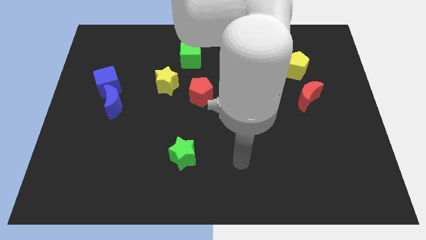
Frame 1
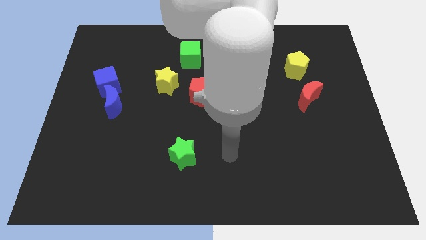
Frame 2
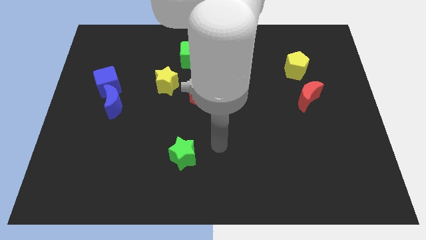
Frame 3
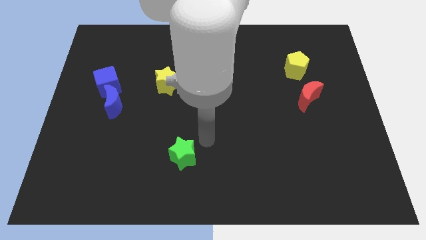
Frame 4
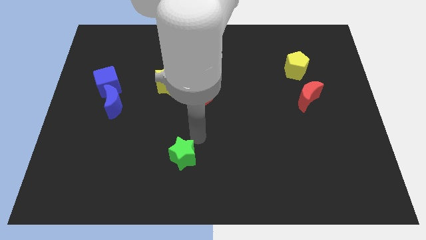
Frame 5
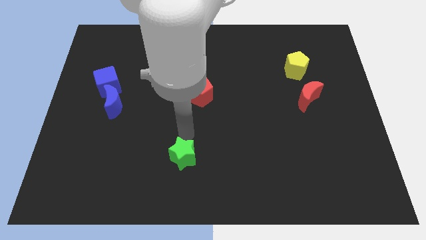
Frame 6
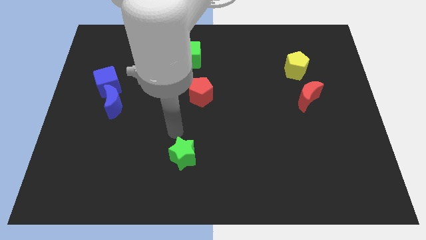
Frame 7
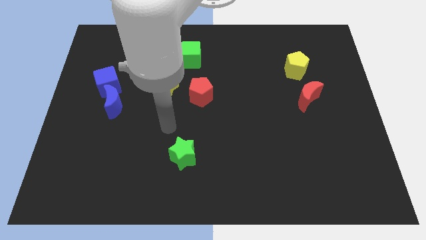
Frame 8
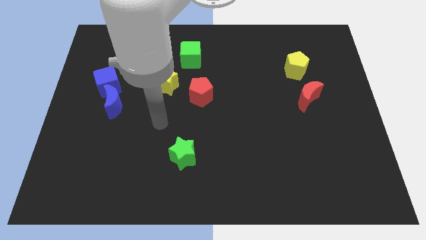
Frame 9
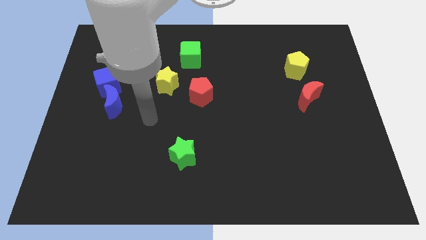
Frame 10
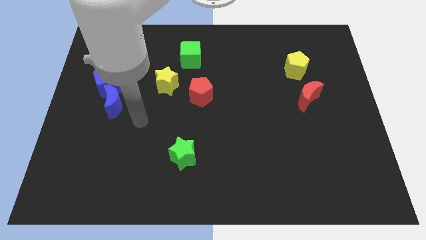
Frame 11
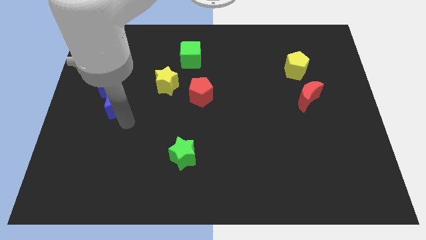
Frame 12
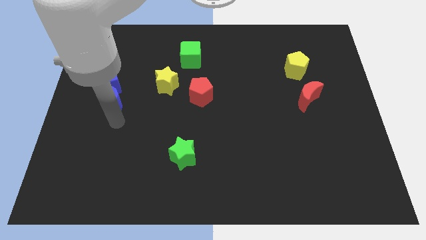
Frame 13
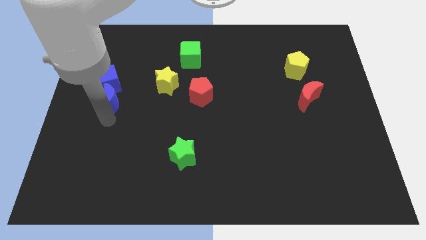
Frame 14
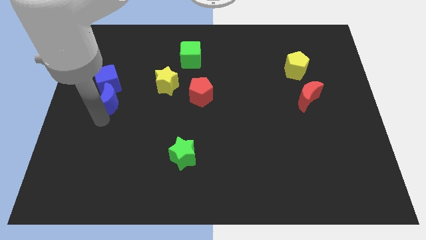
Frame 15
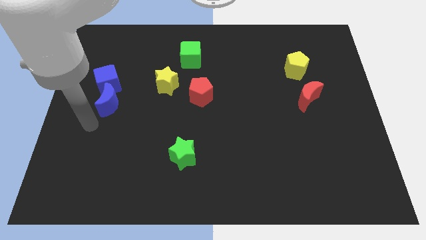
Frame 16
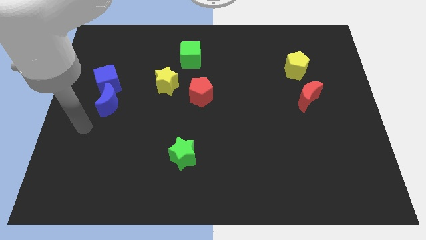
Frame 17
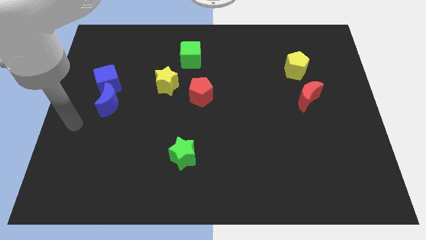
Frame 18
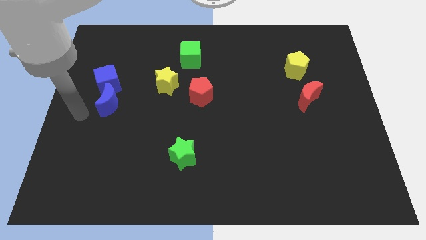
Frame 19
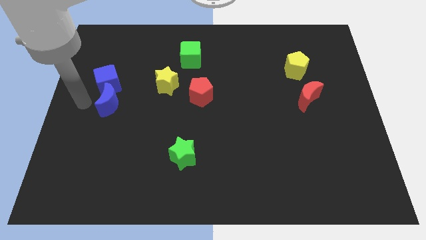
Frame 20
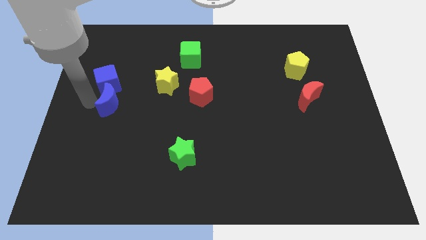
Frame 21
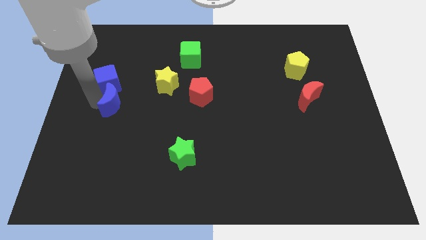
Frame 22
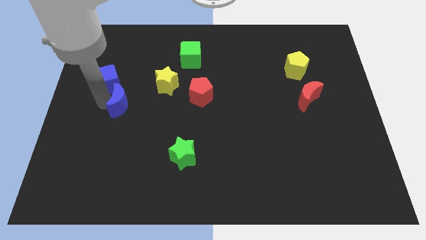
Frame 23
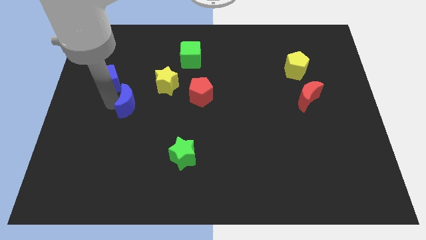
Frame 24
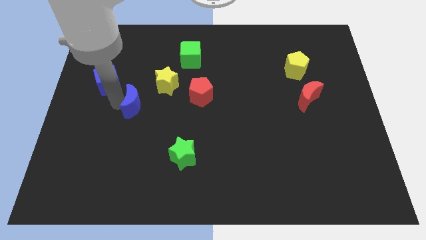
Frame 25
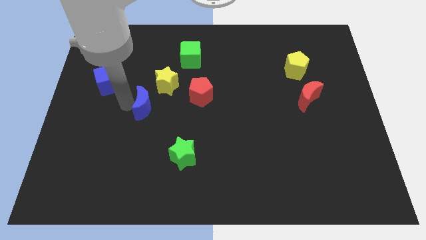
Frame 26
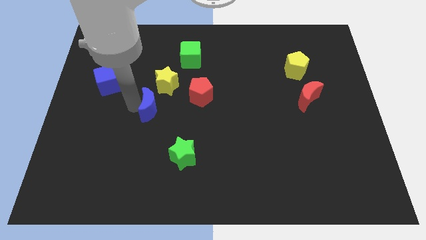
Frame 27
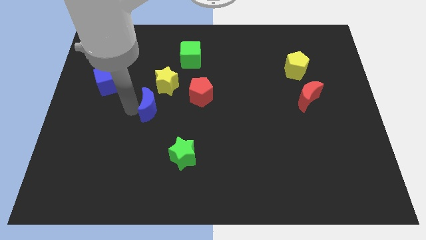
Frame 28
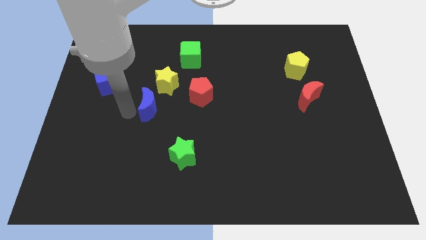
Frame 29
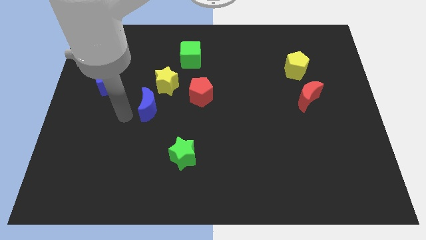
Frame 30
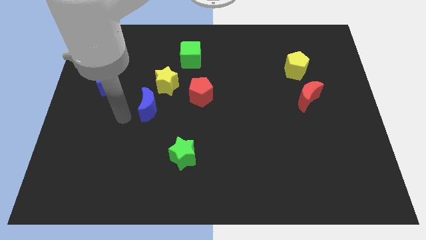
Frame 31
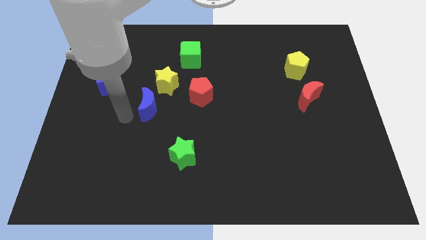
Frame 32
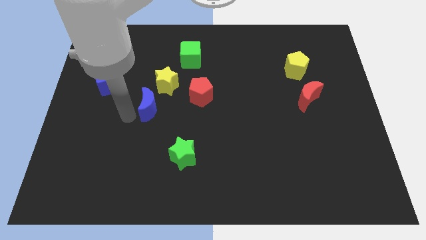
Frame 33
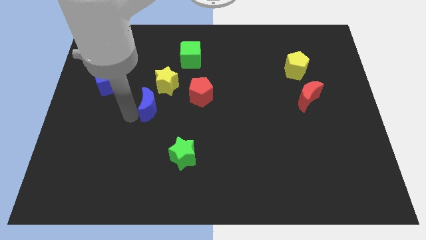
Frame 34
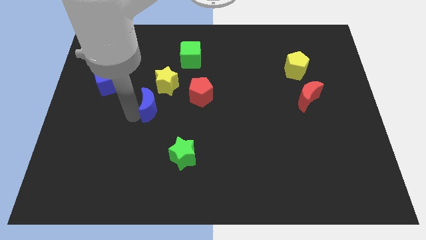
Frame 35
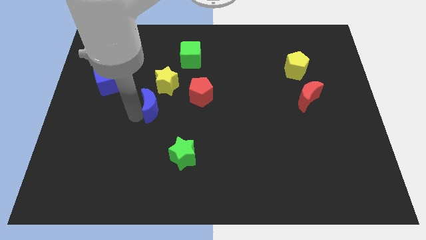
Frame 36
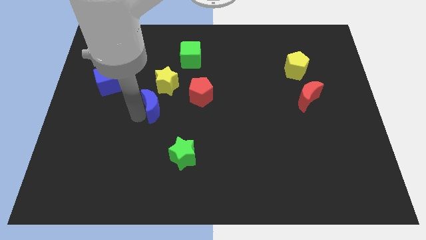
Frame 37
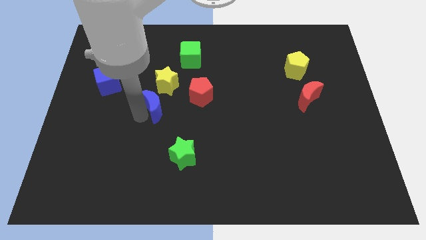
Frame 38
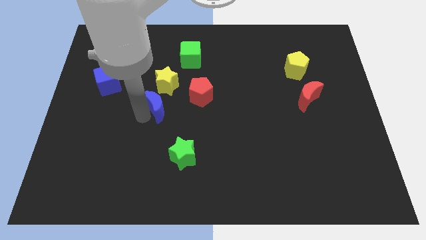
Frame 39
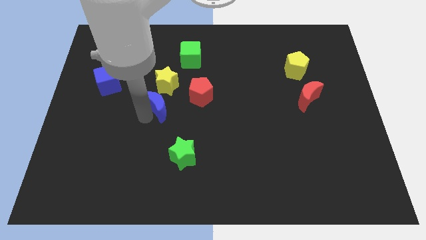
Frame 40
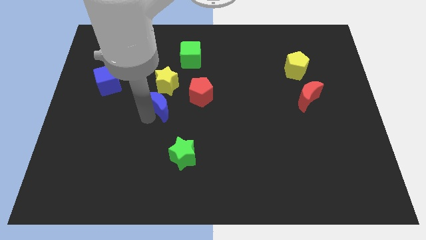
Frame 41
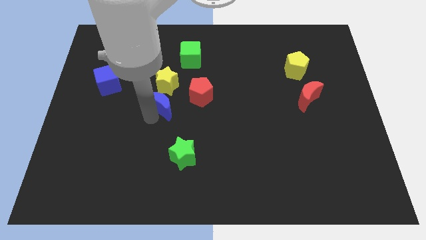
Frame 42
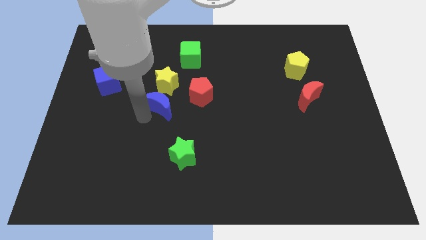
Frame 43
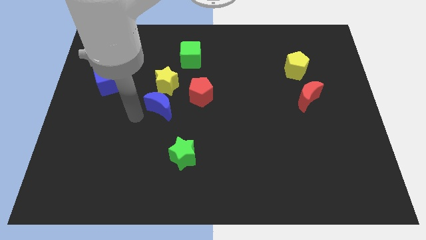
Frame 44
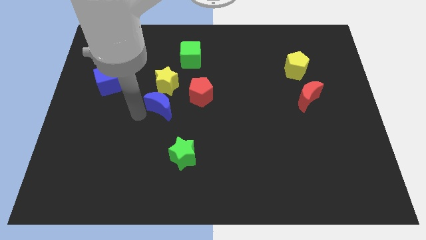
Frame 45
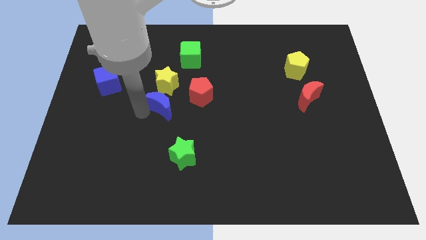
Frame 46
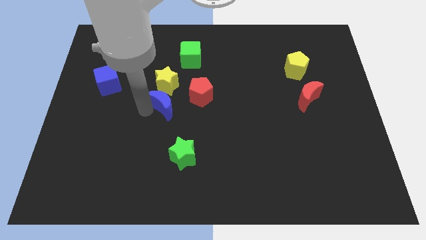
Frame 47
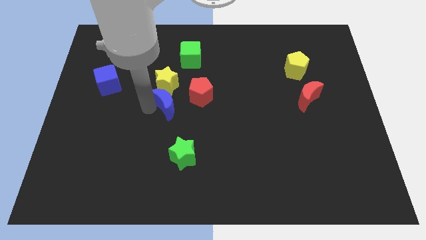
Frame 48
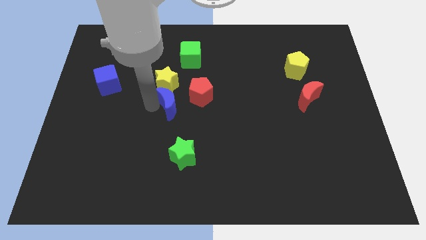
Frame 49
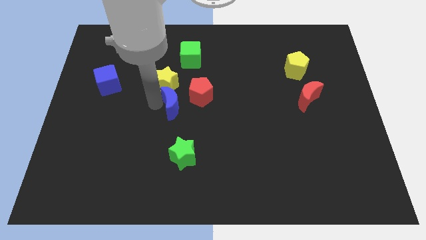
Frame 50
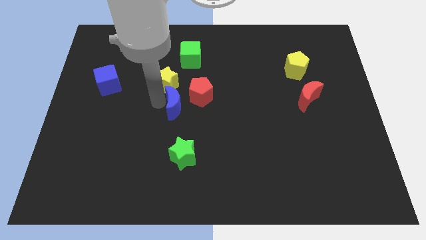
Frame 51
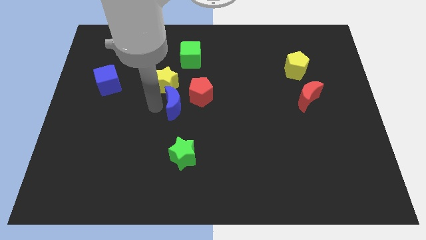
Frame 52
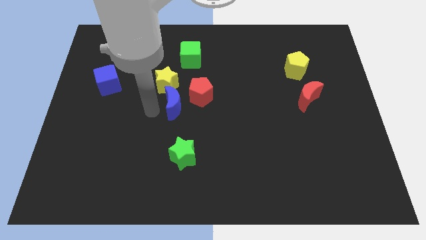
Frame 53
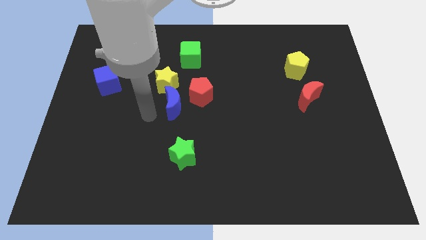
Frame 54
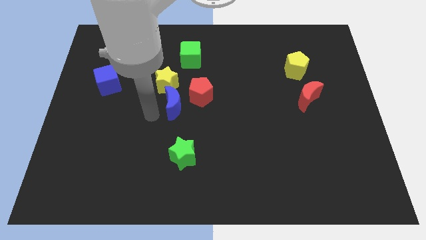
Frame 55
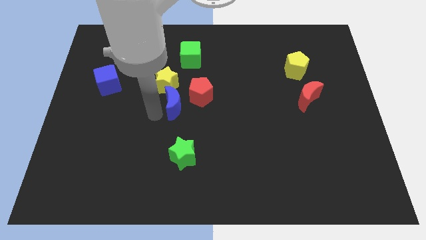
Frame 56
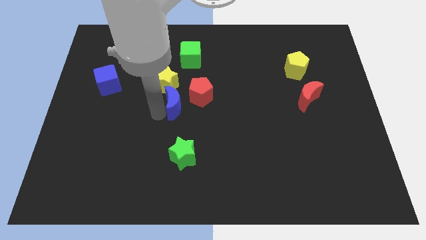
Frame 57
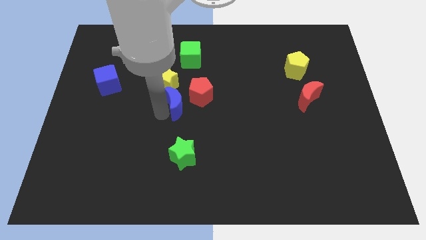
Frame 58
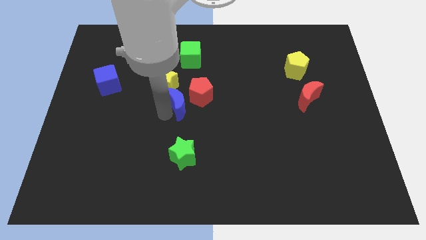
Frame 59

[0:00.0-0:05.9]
slide the blue moon next to the red pentagon

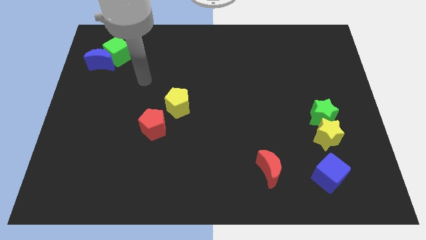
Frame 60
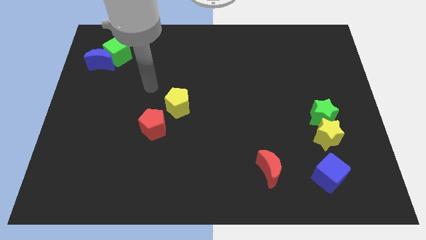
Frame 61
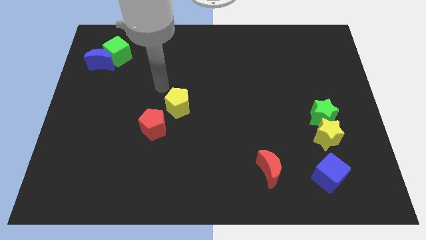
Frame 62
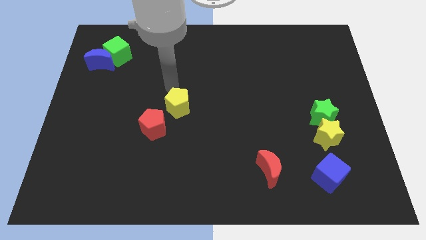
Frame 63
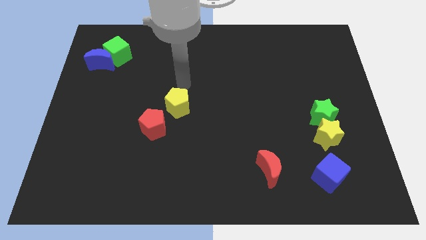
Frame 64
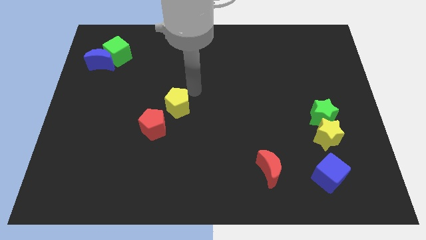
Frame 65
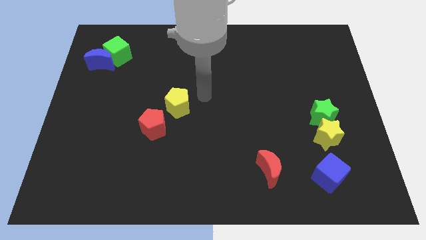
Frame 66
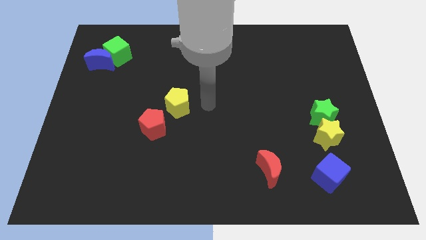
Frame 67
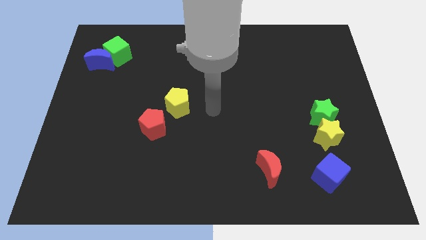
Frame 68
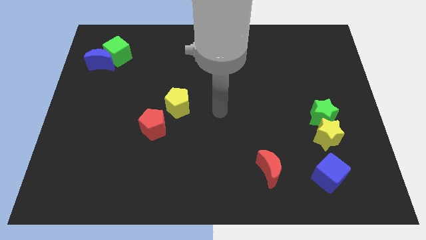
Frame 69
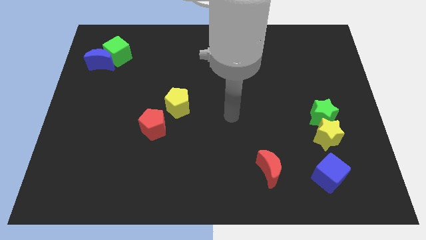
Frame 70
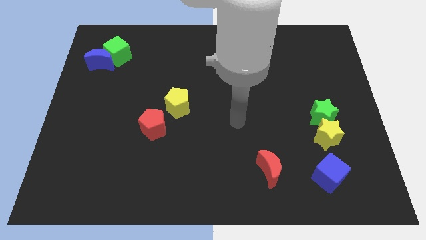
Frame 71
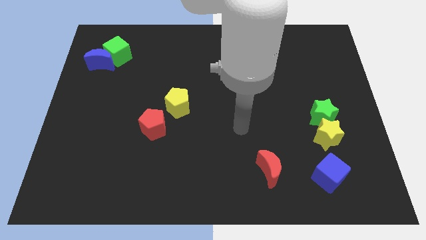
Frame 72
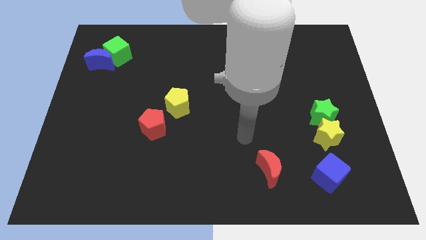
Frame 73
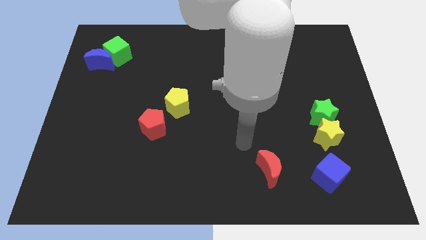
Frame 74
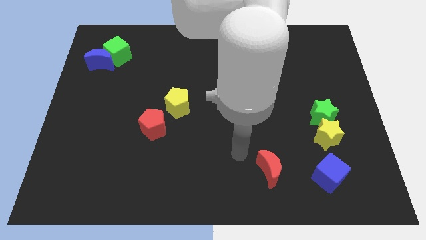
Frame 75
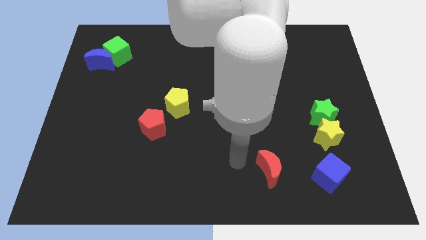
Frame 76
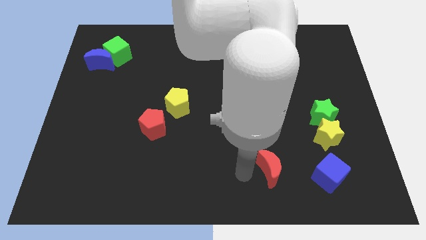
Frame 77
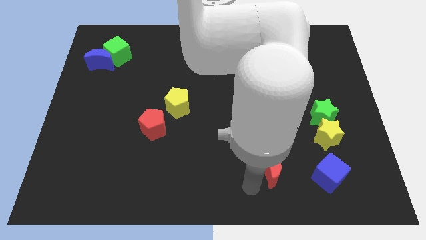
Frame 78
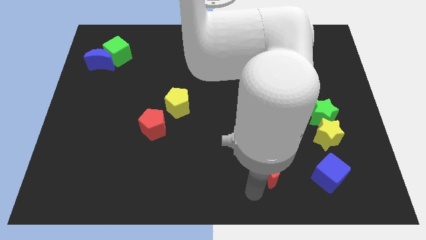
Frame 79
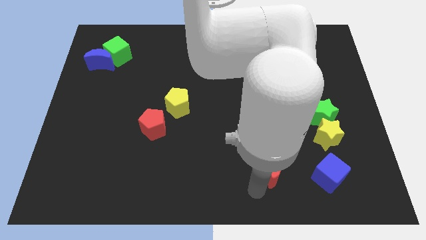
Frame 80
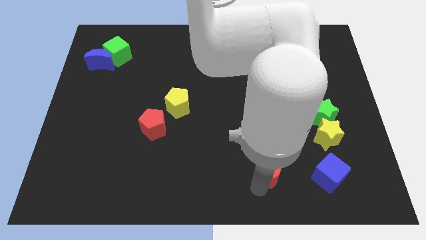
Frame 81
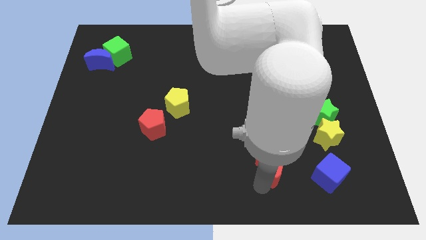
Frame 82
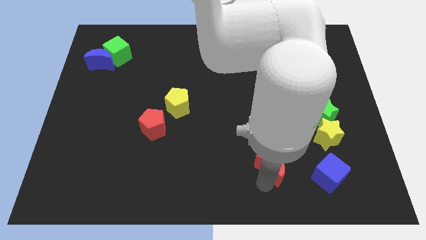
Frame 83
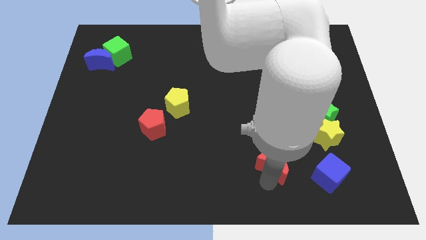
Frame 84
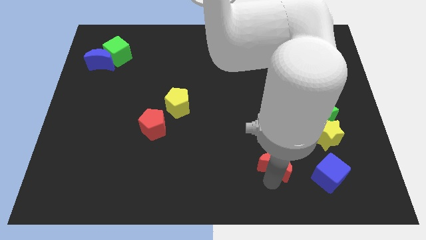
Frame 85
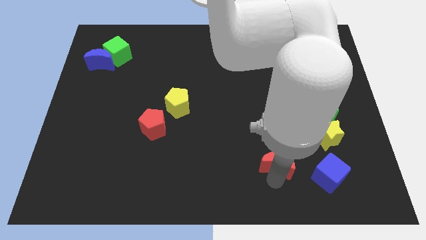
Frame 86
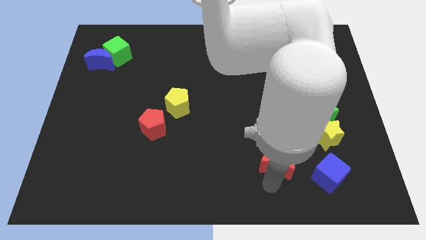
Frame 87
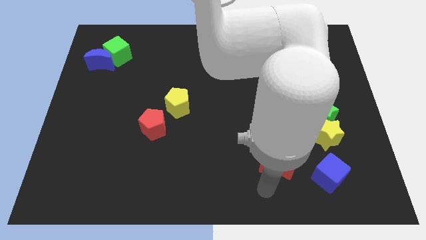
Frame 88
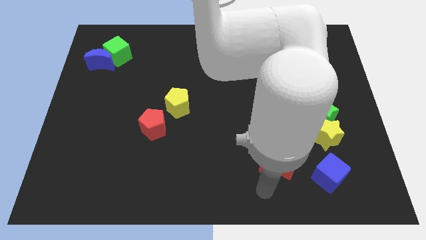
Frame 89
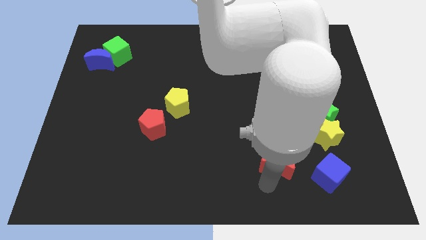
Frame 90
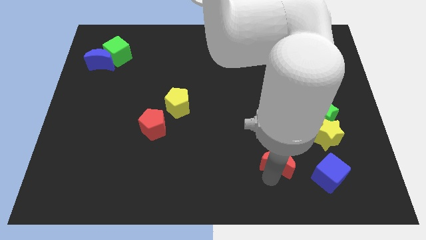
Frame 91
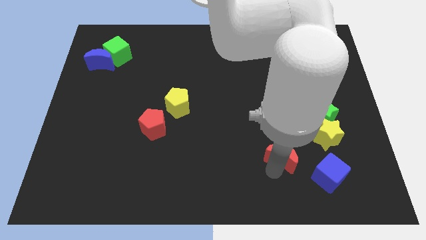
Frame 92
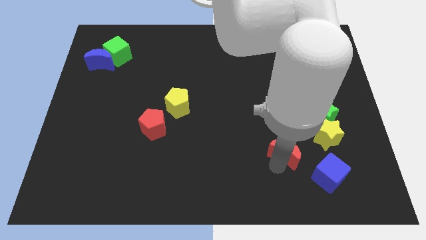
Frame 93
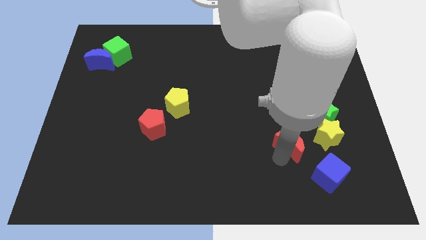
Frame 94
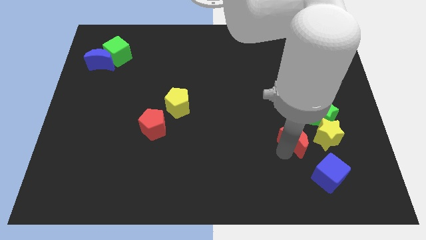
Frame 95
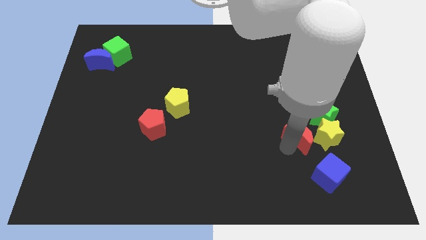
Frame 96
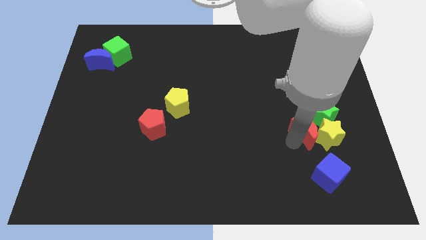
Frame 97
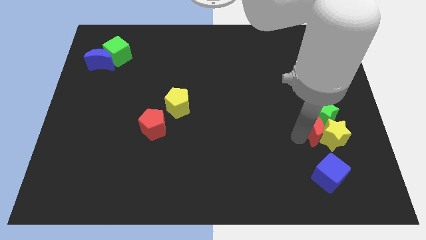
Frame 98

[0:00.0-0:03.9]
slide the red moon to the green star
